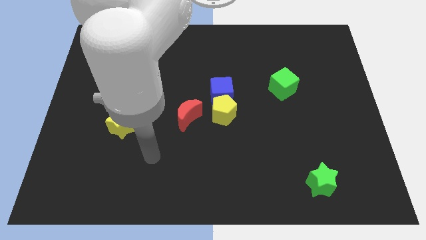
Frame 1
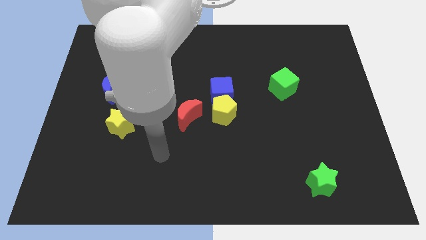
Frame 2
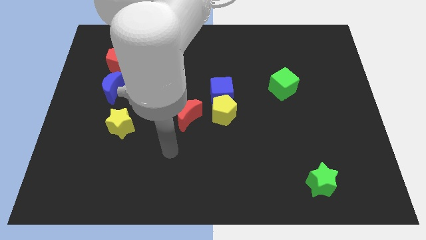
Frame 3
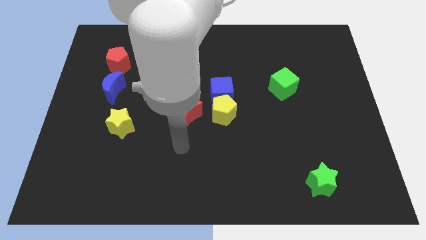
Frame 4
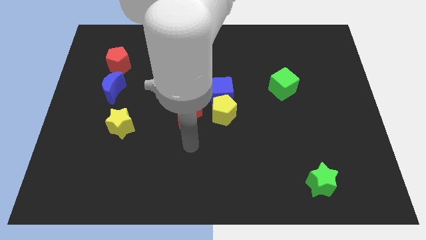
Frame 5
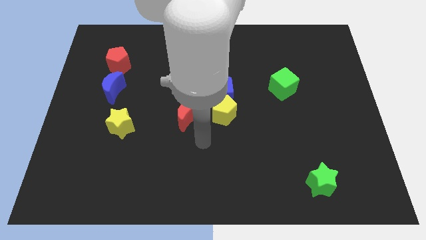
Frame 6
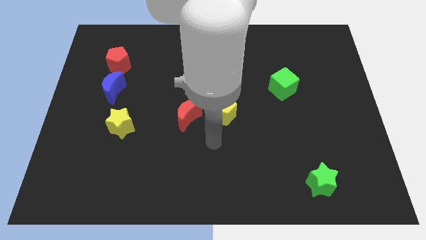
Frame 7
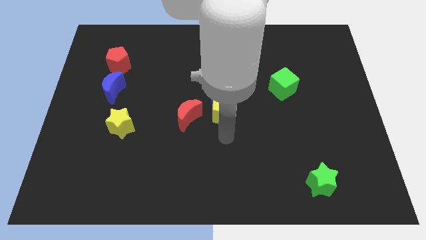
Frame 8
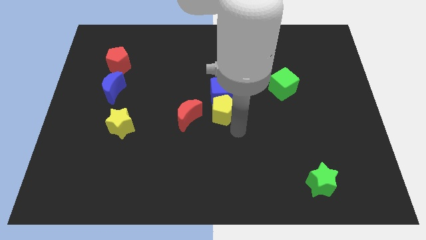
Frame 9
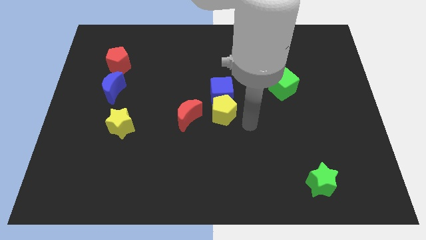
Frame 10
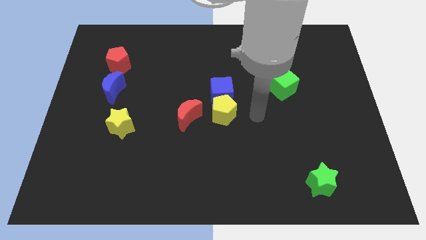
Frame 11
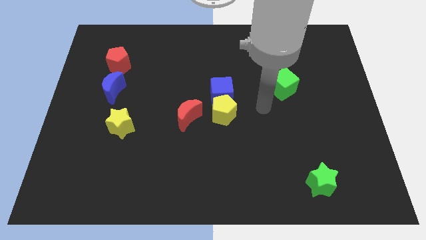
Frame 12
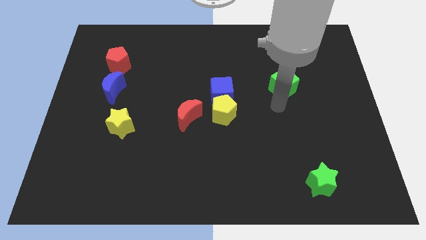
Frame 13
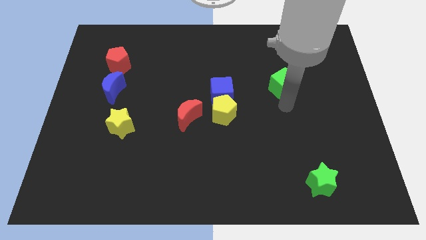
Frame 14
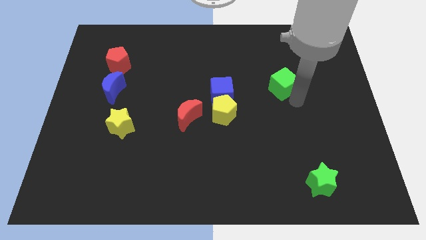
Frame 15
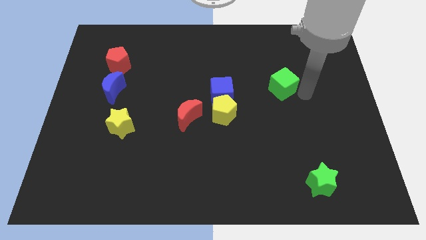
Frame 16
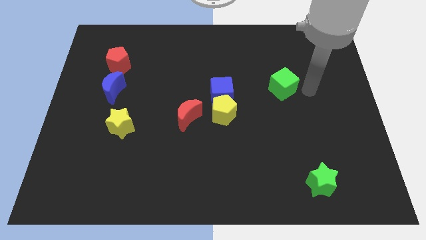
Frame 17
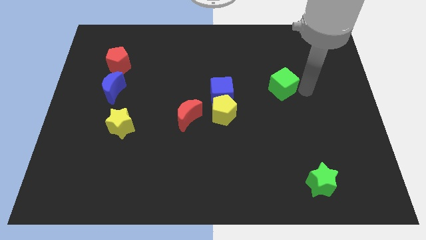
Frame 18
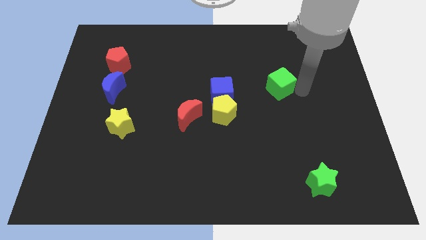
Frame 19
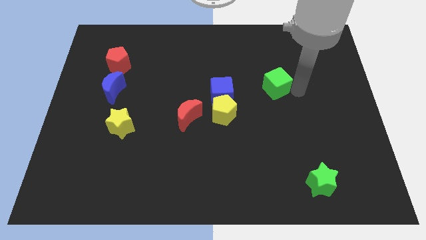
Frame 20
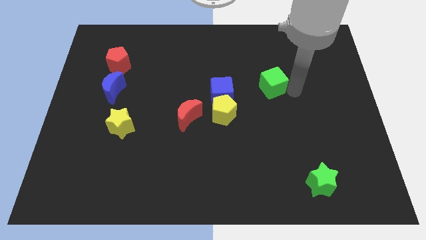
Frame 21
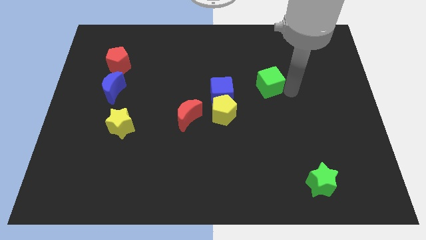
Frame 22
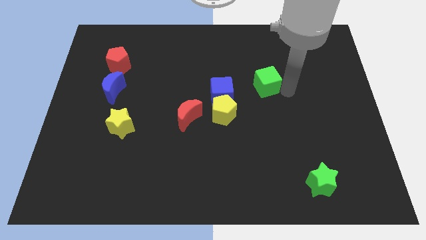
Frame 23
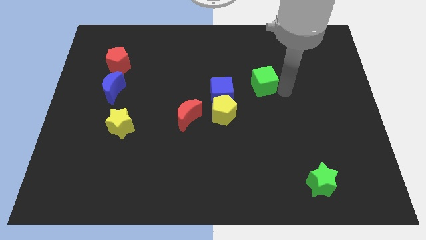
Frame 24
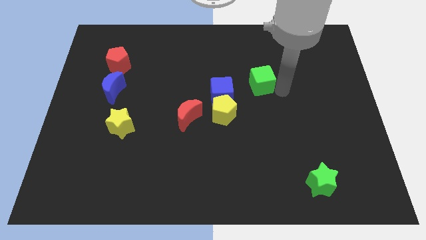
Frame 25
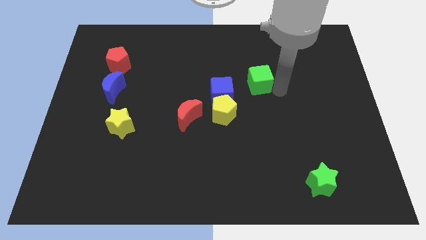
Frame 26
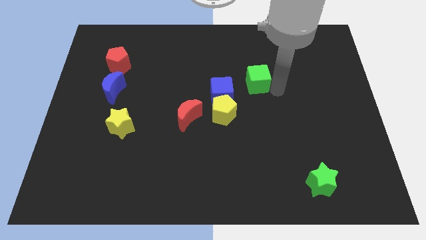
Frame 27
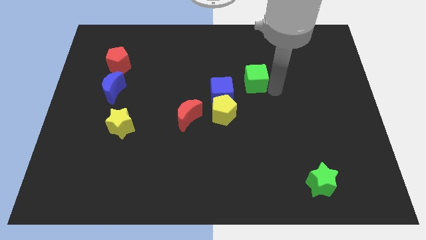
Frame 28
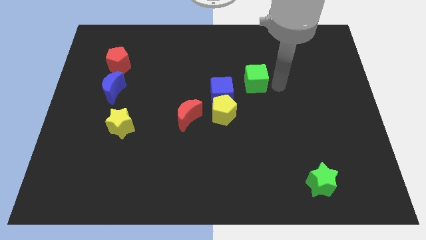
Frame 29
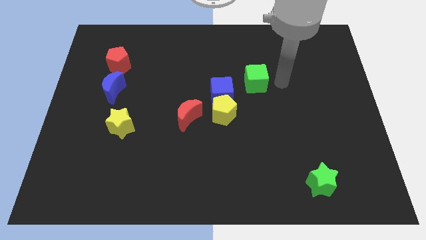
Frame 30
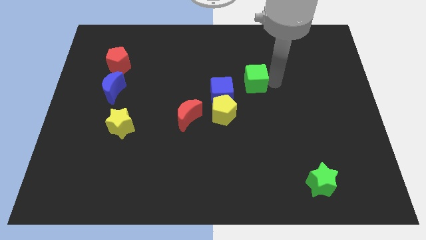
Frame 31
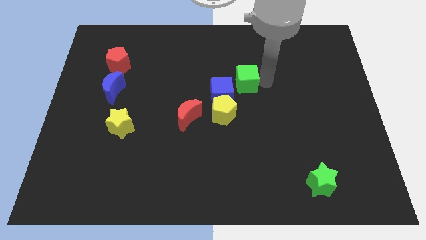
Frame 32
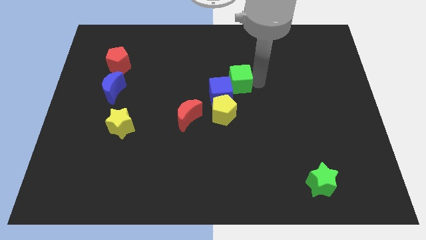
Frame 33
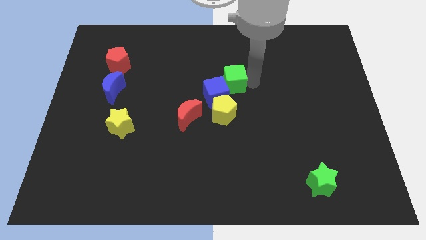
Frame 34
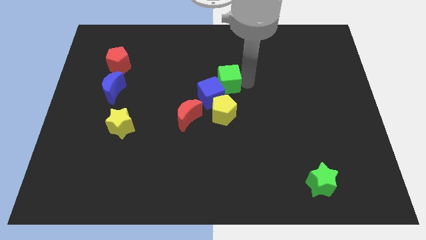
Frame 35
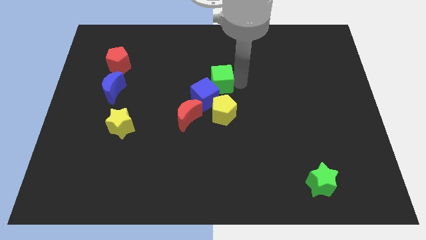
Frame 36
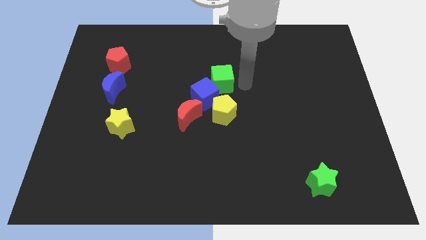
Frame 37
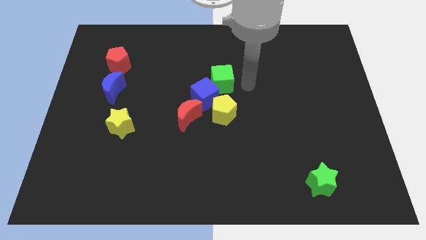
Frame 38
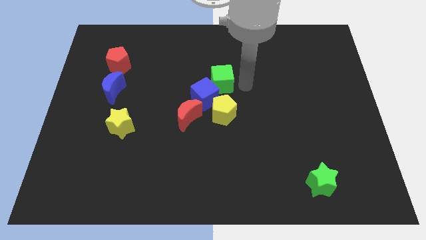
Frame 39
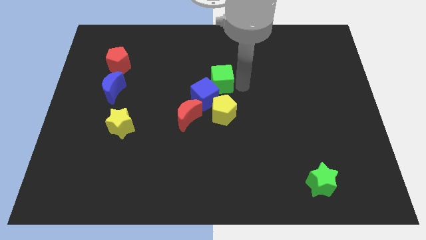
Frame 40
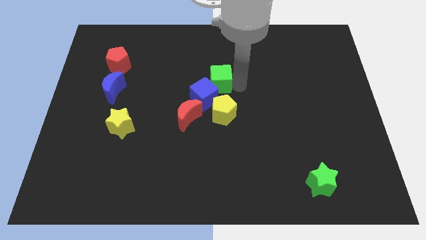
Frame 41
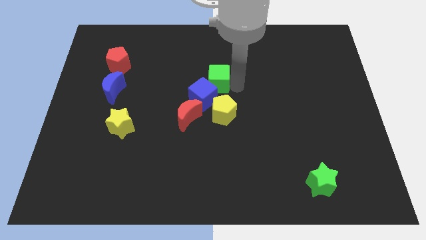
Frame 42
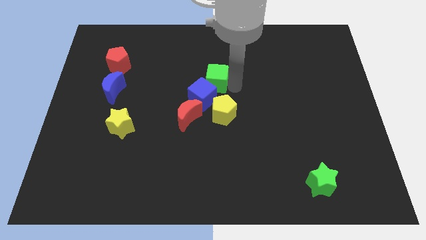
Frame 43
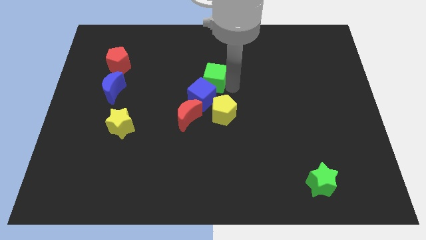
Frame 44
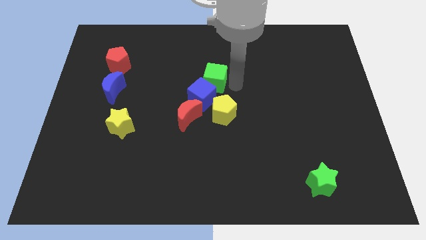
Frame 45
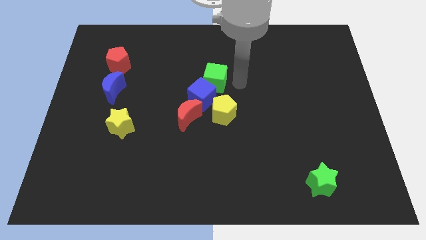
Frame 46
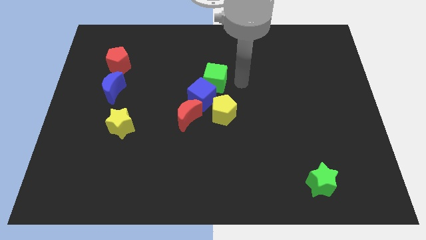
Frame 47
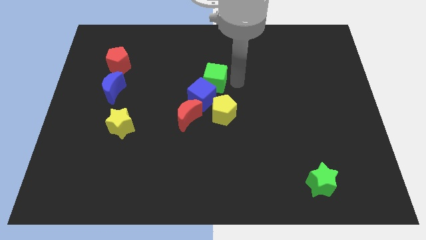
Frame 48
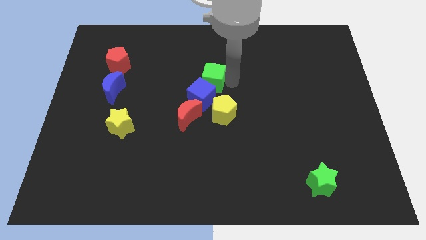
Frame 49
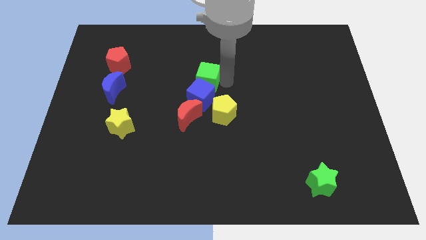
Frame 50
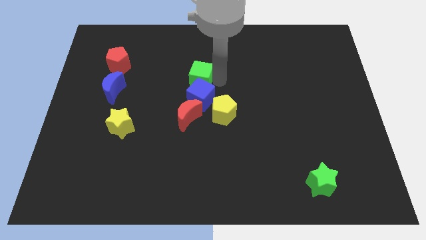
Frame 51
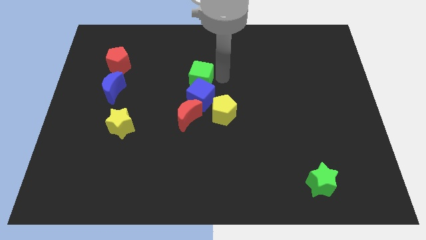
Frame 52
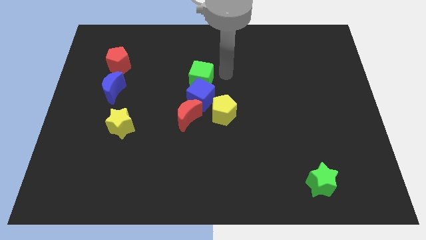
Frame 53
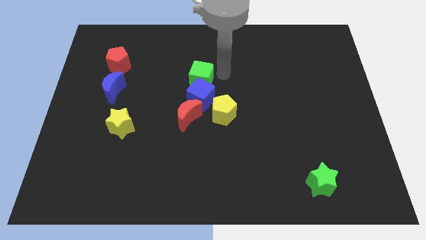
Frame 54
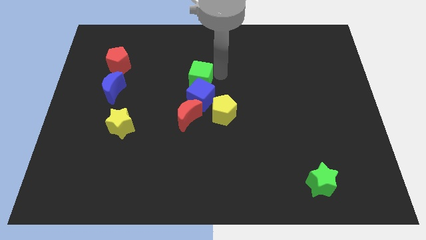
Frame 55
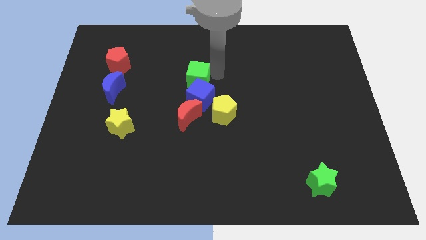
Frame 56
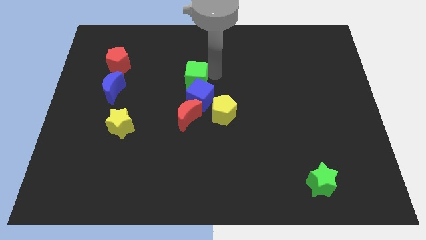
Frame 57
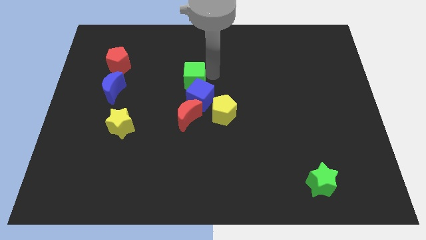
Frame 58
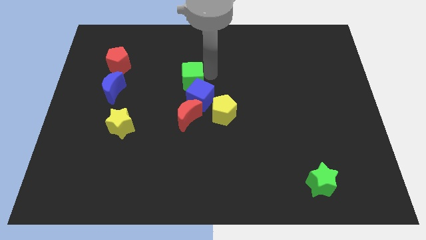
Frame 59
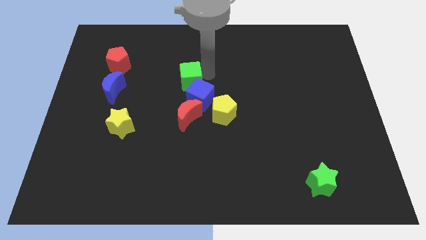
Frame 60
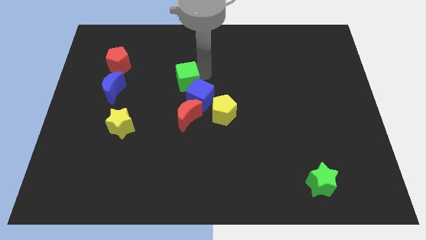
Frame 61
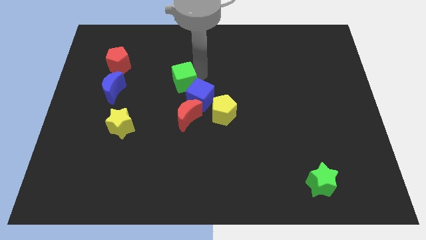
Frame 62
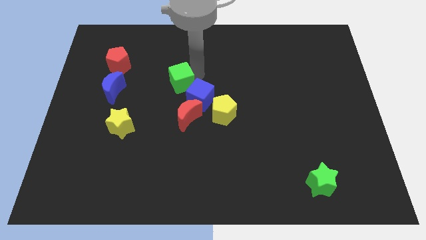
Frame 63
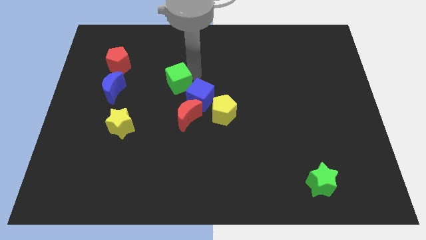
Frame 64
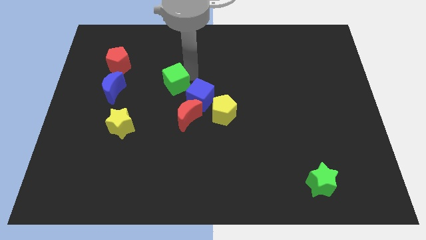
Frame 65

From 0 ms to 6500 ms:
push the green cube just right of the blue moon
